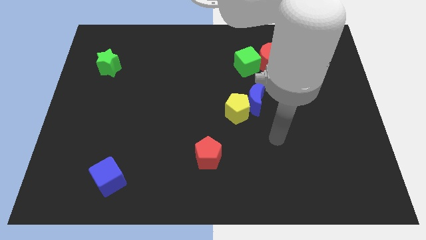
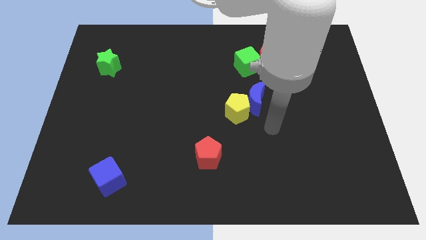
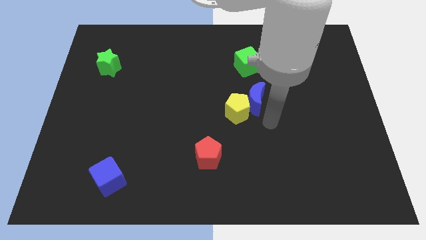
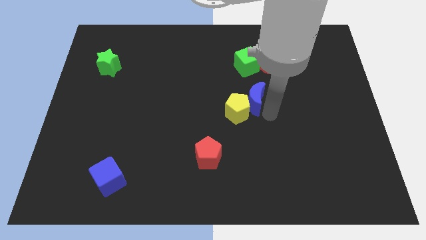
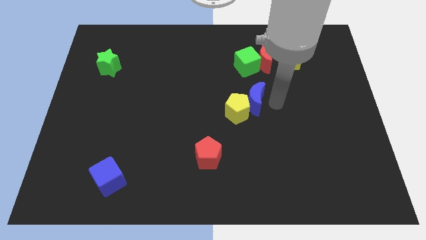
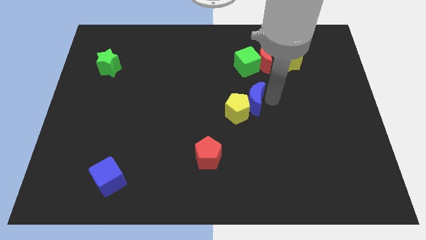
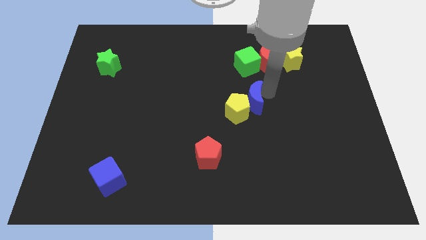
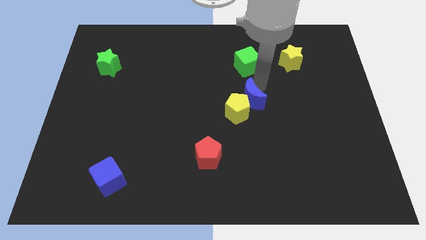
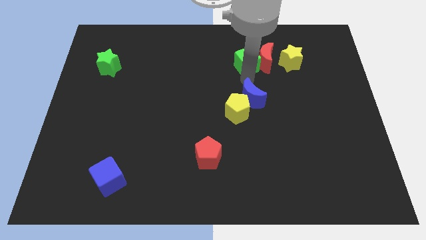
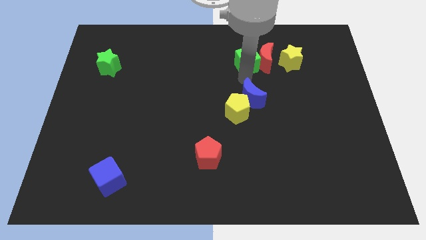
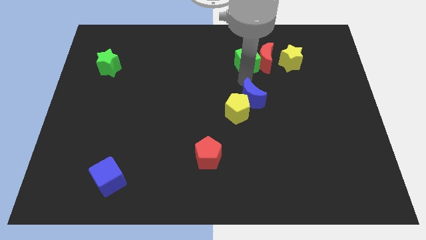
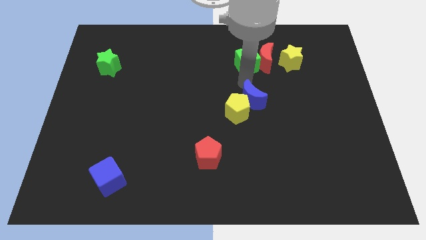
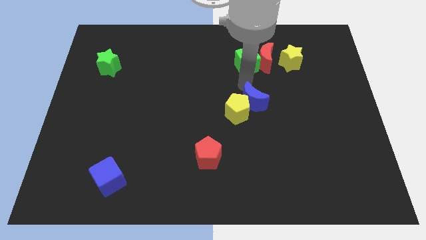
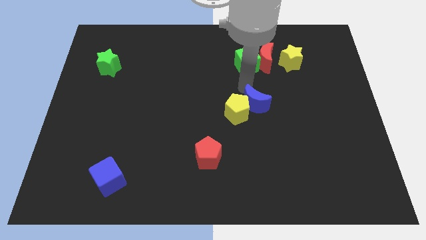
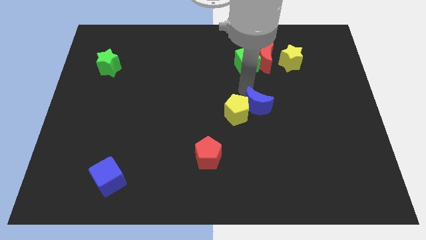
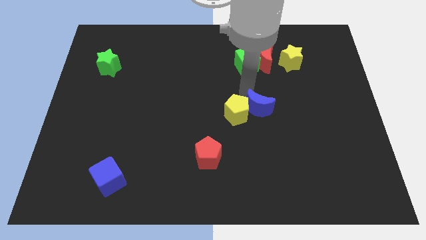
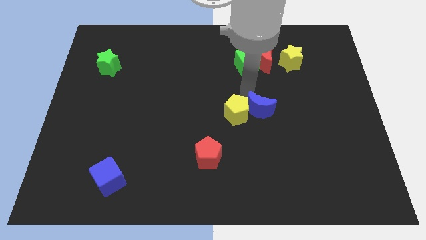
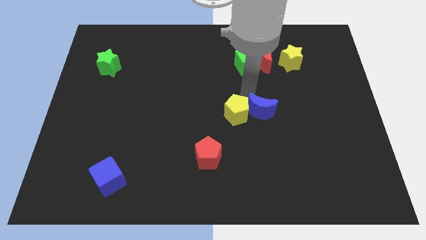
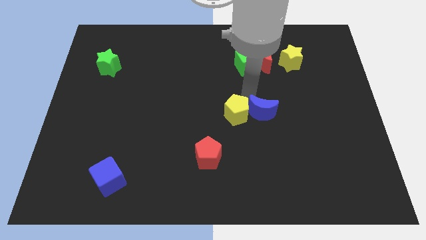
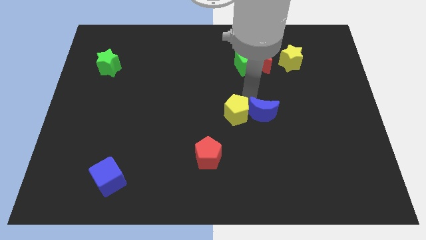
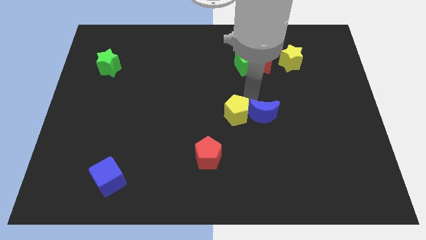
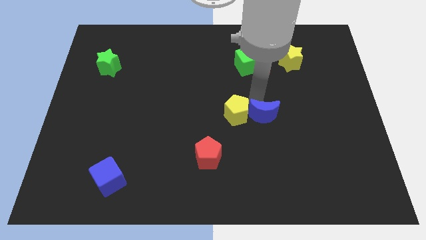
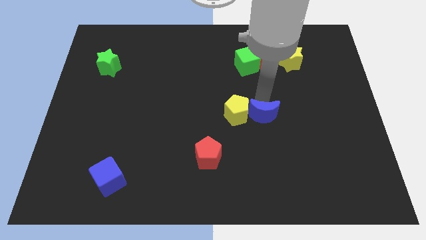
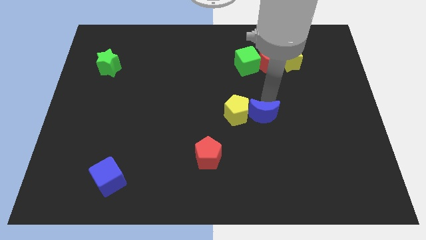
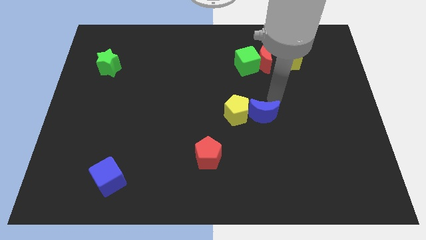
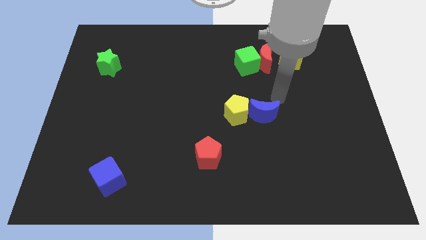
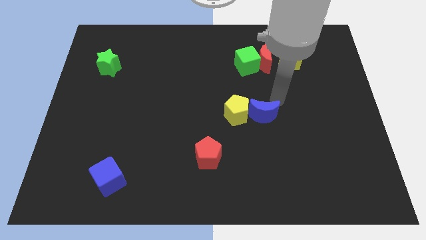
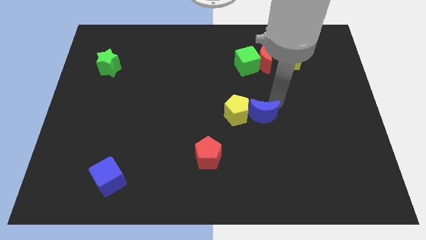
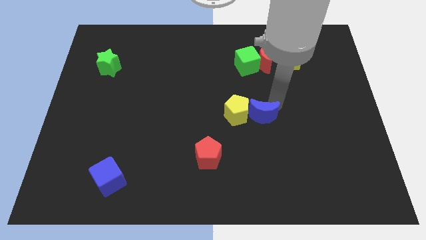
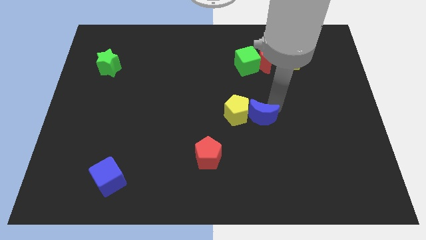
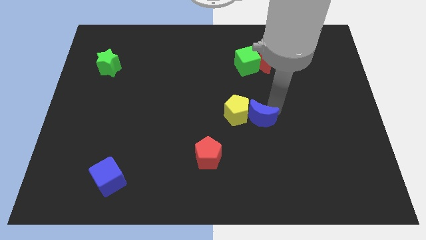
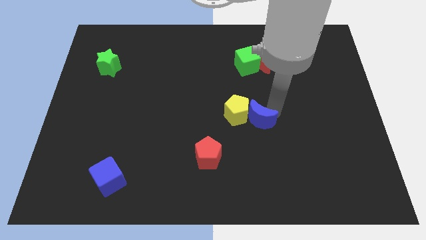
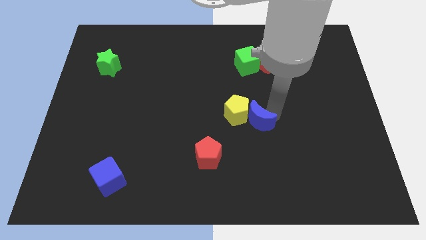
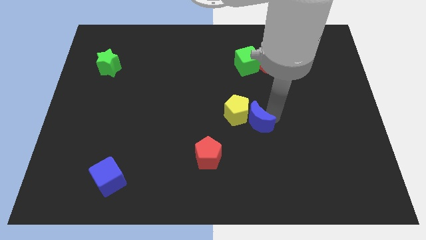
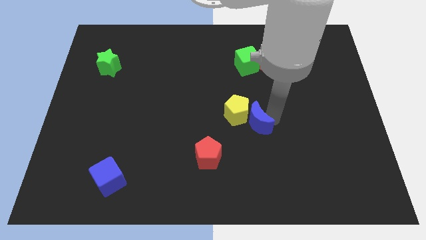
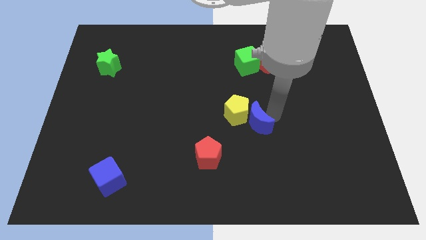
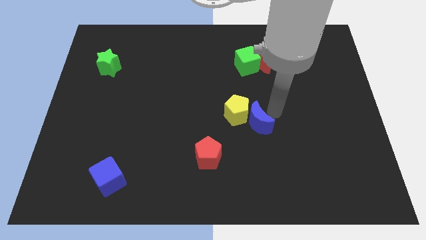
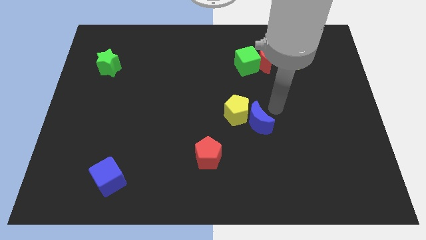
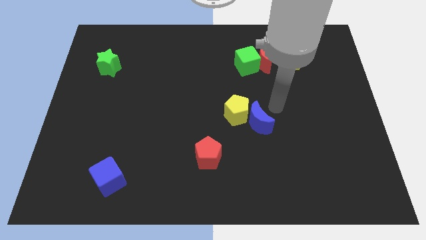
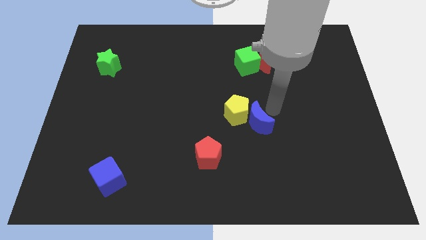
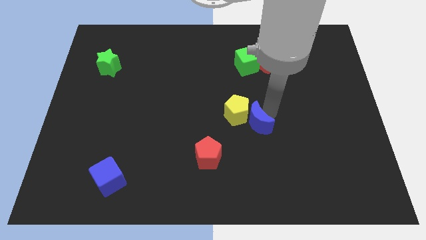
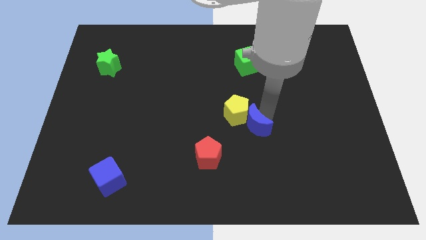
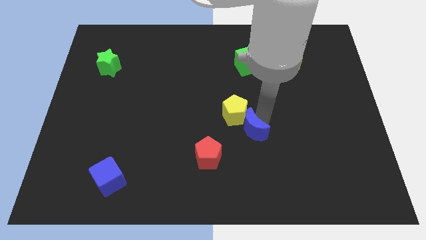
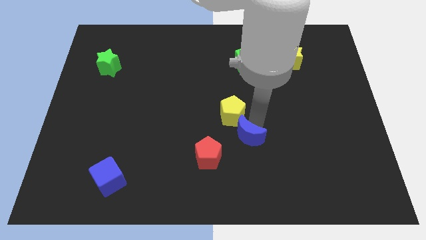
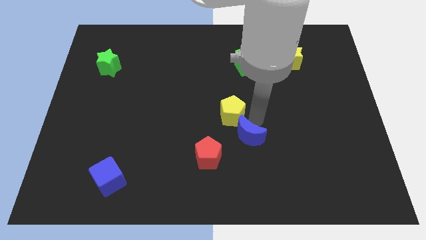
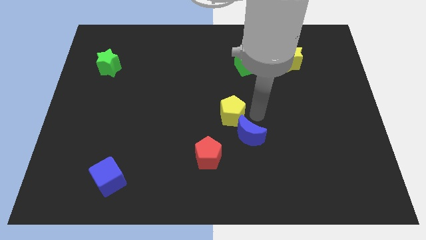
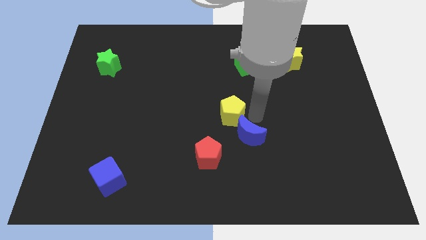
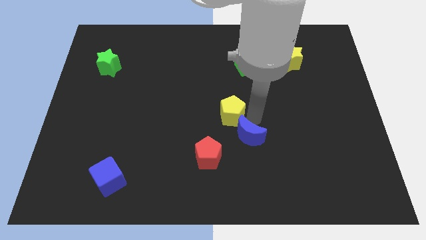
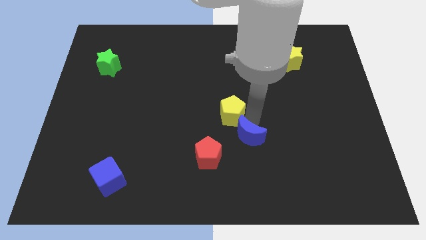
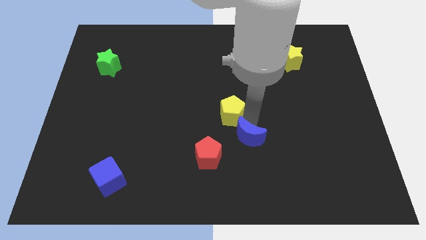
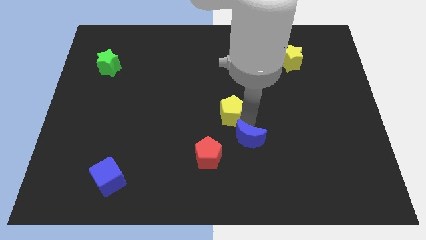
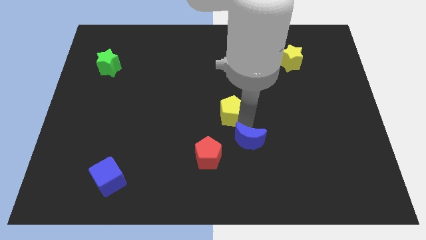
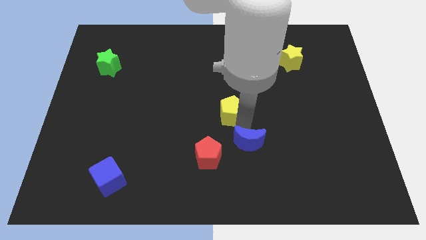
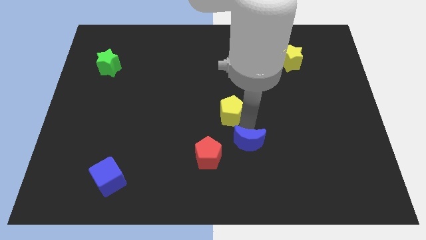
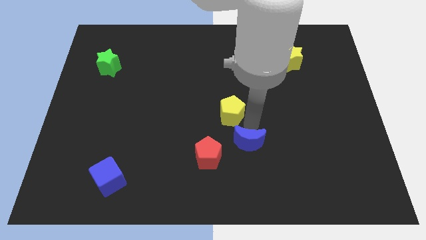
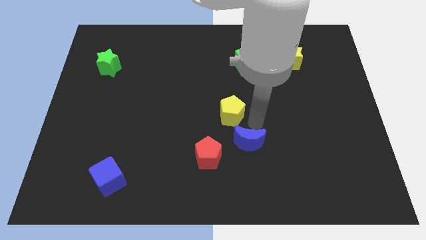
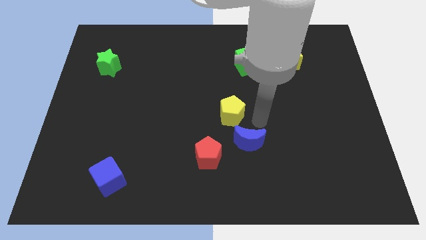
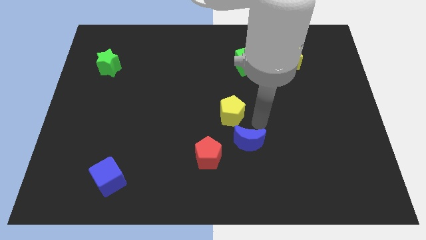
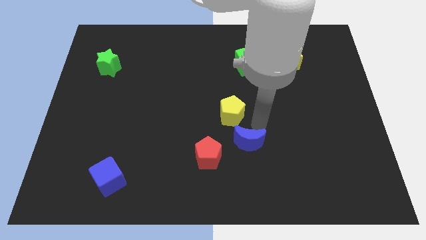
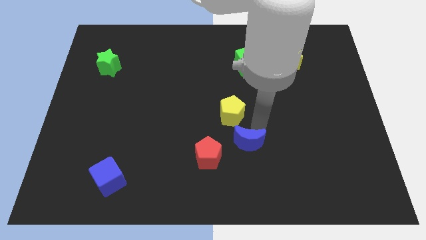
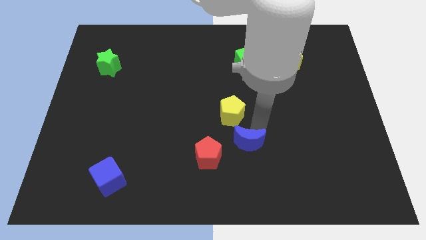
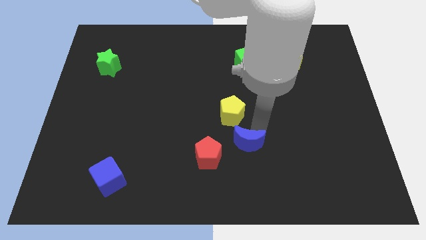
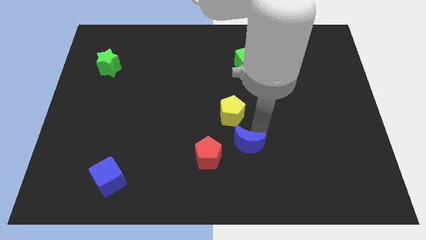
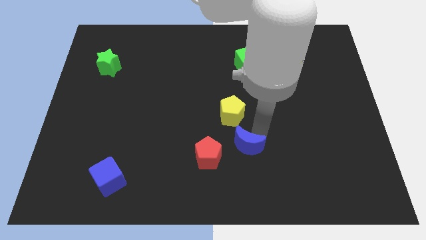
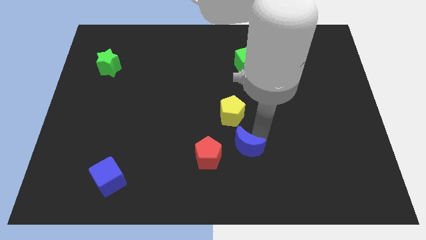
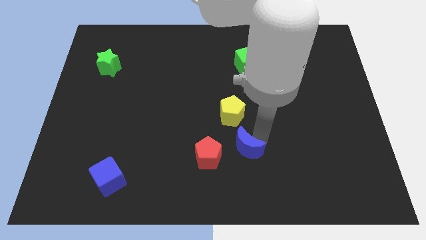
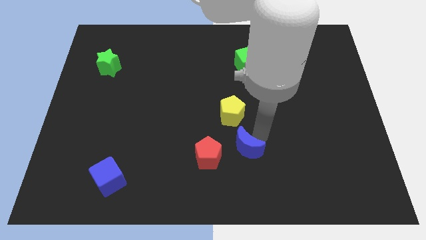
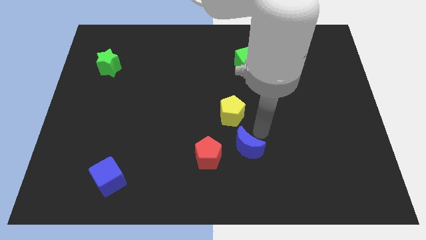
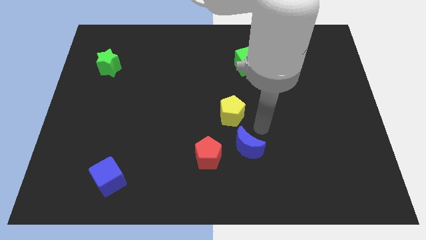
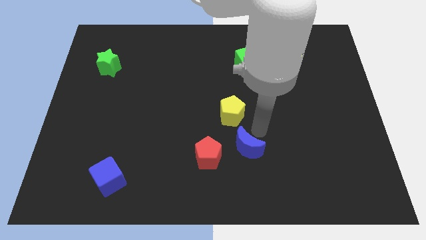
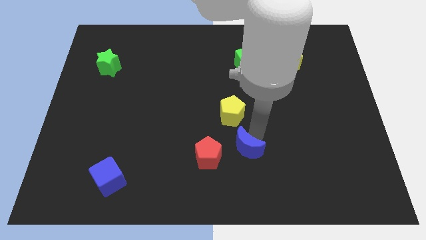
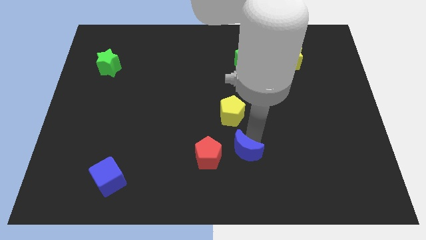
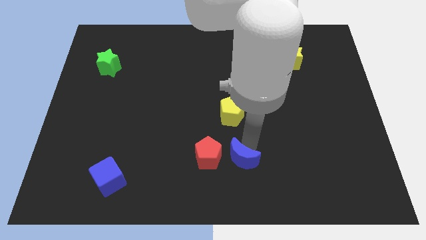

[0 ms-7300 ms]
put the blue moon to the bottom side

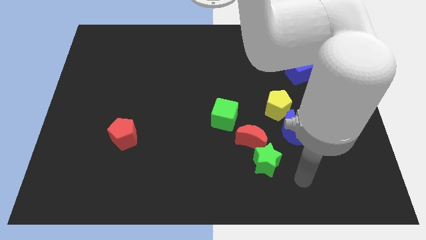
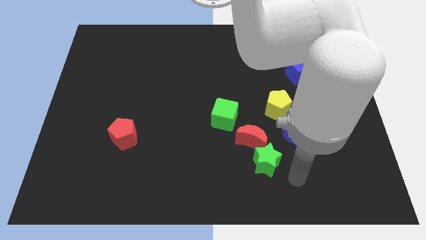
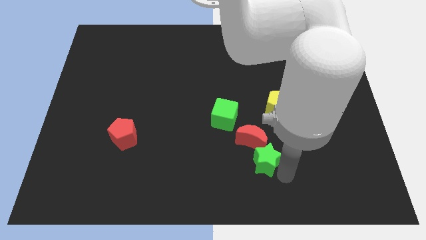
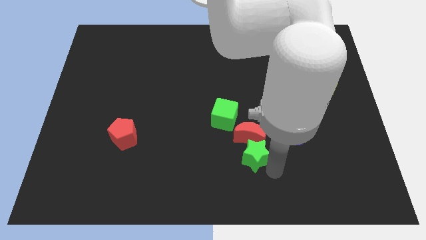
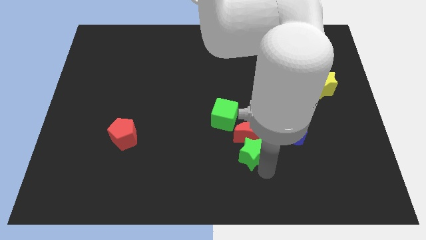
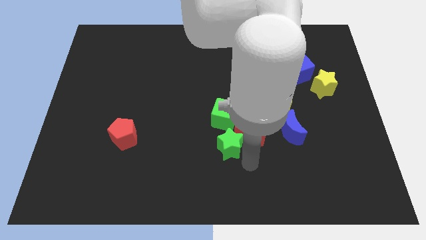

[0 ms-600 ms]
move the red moon to the middle of the board
